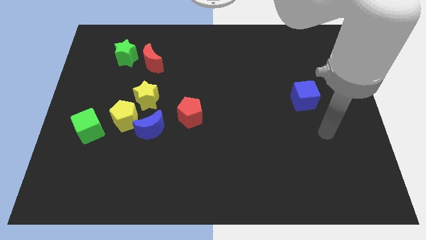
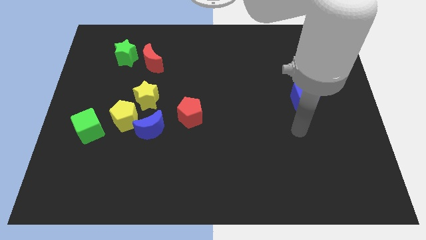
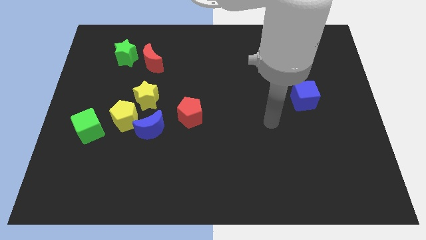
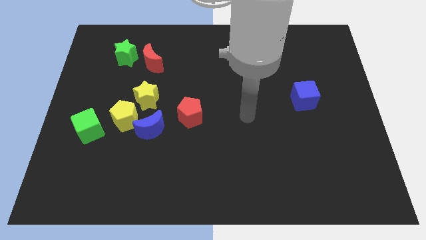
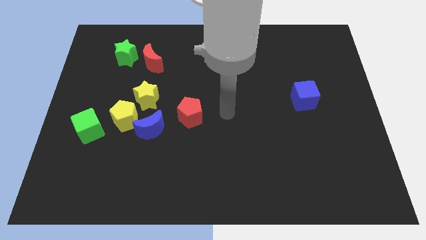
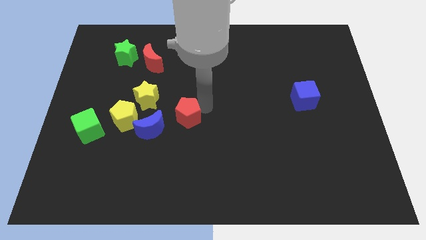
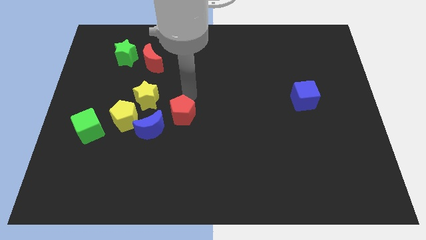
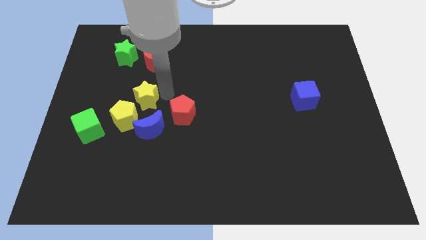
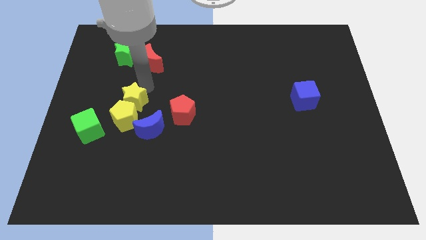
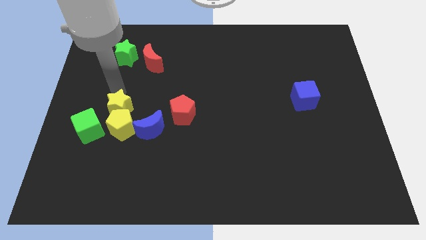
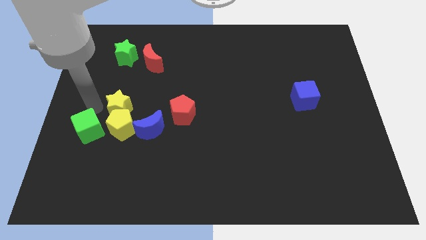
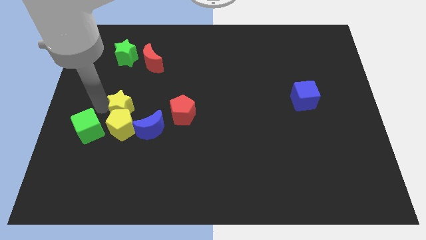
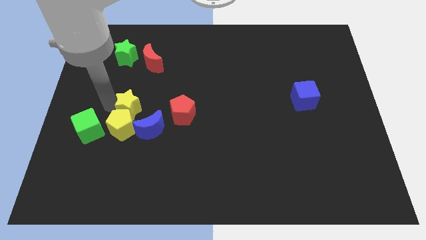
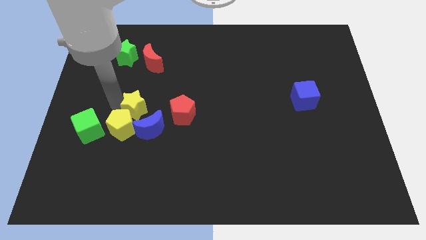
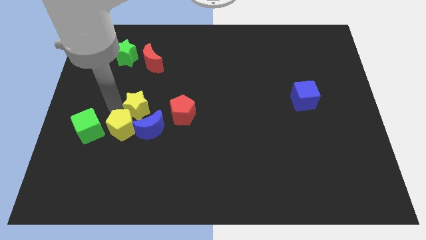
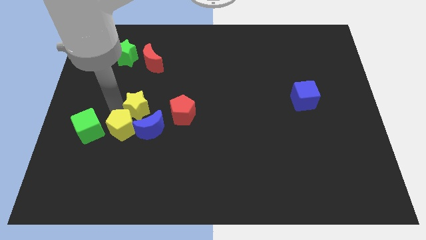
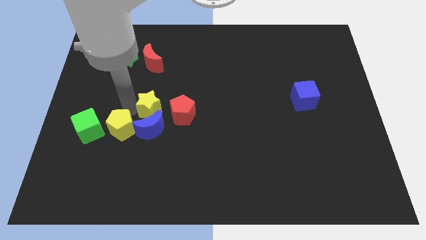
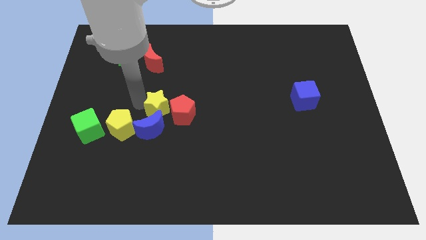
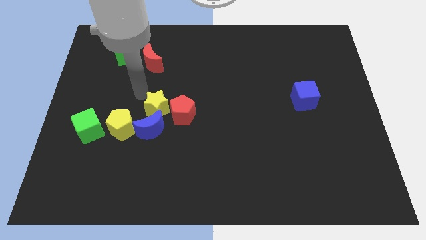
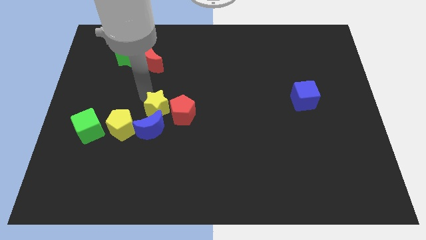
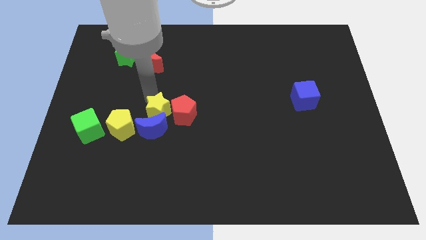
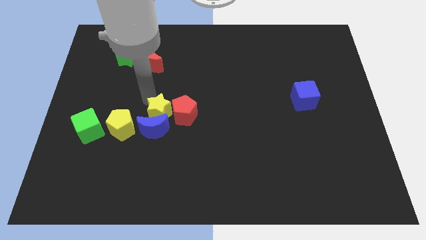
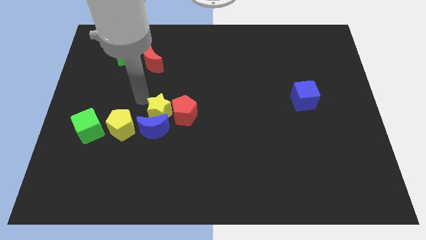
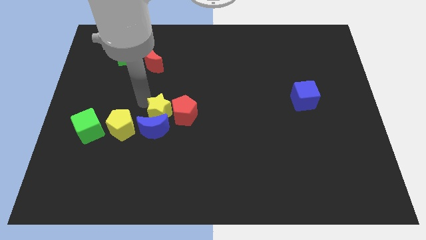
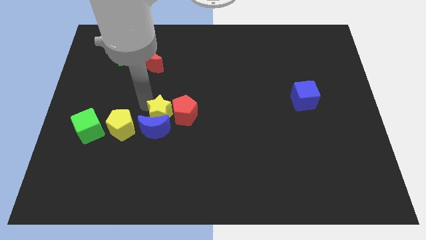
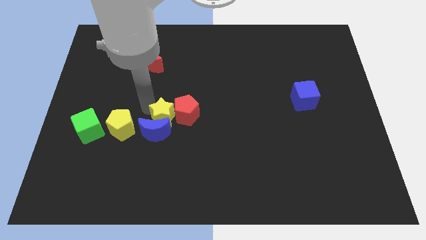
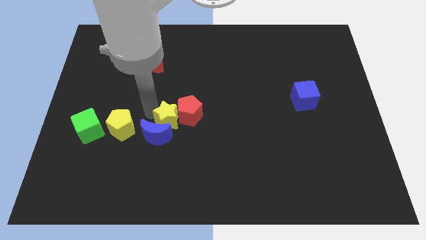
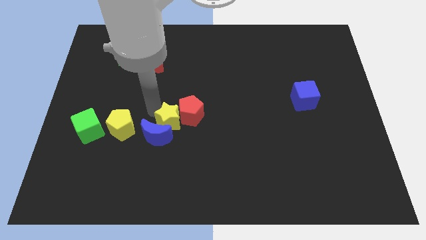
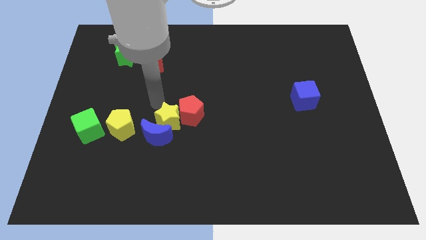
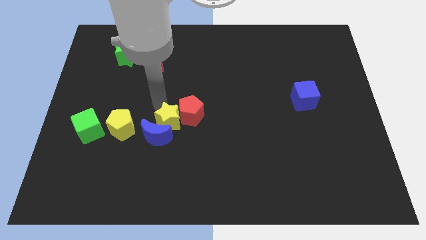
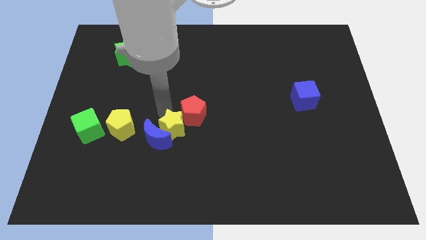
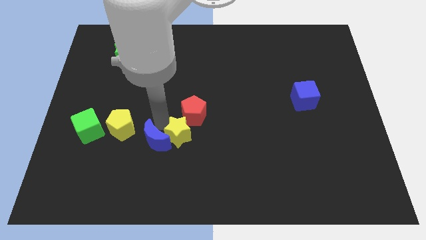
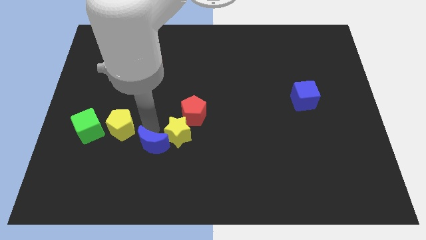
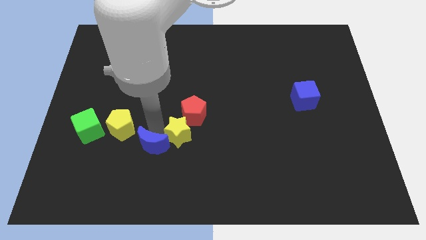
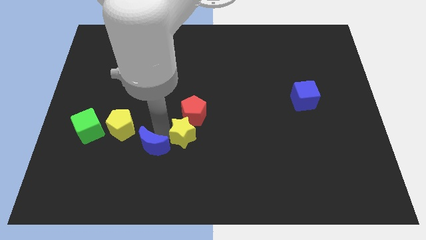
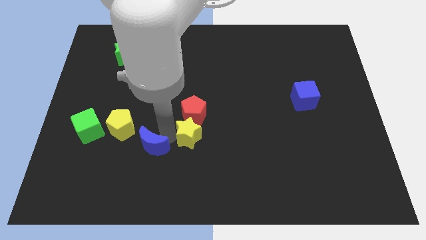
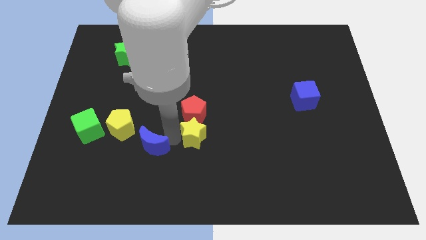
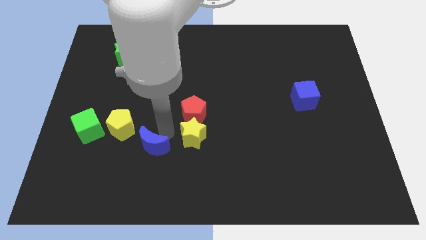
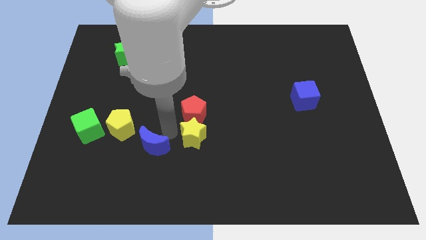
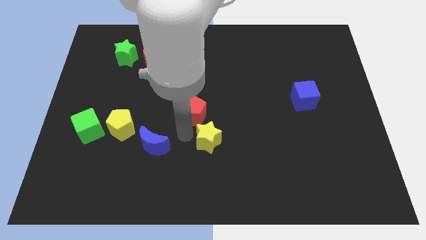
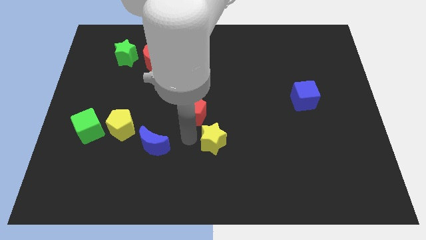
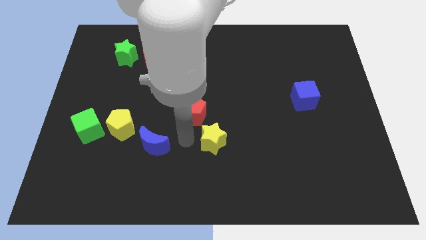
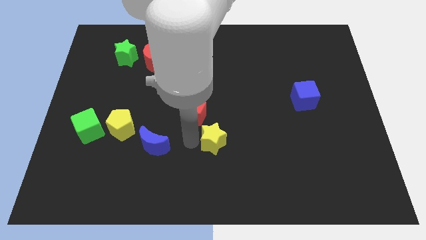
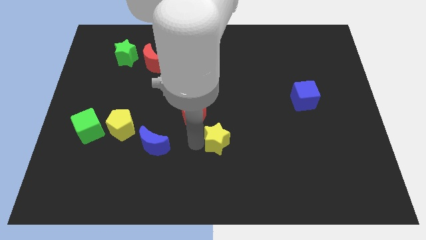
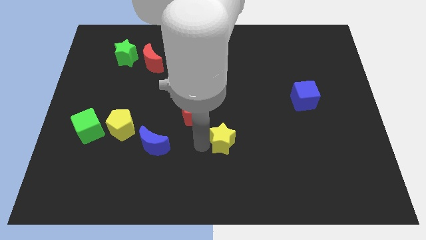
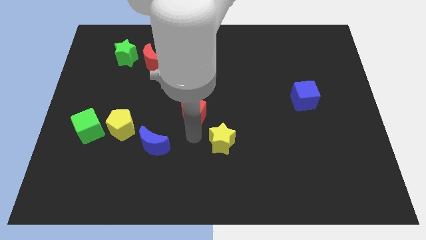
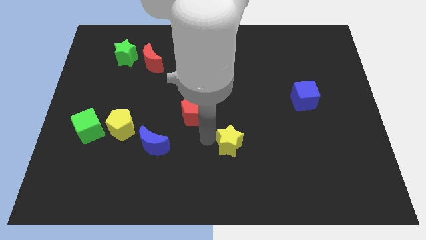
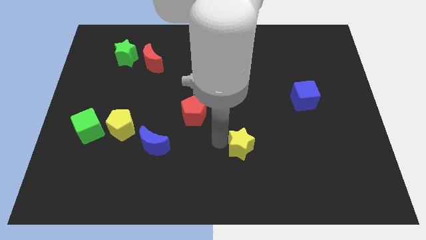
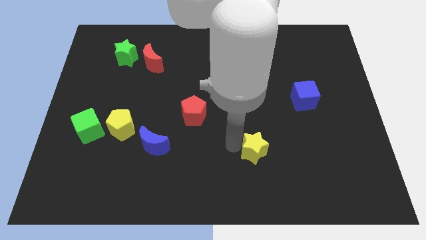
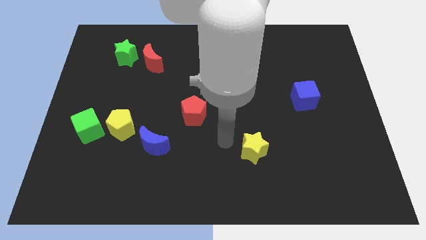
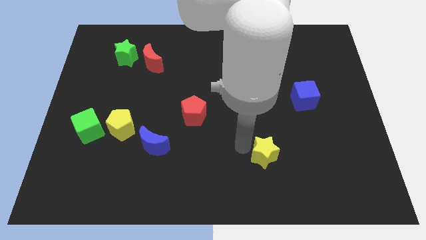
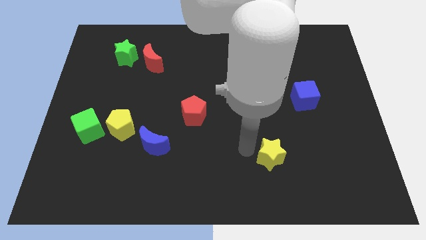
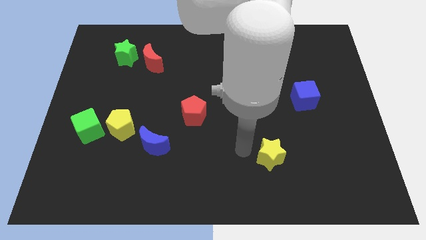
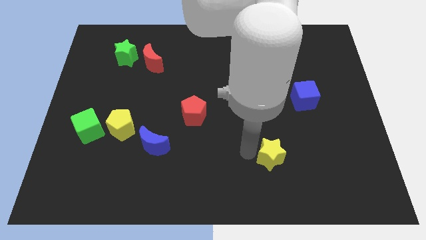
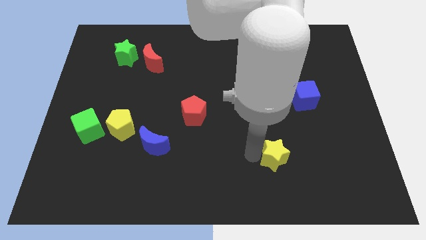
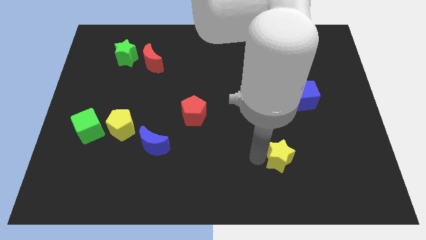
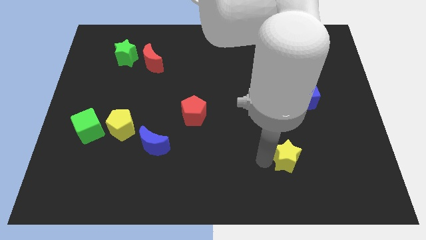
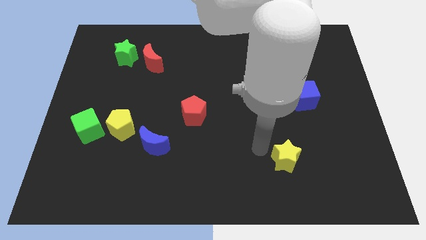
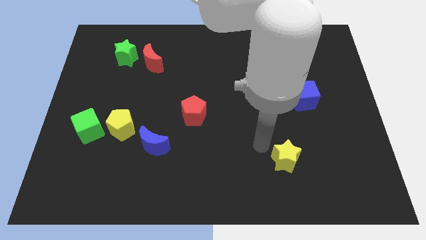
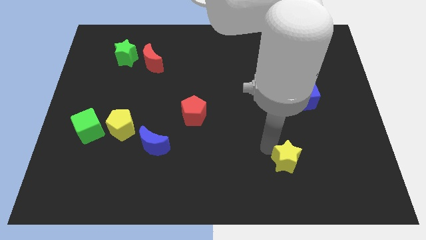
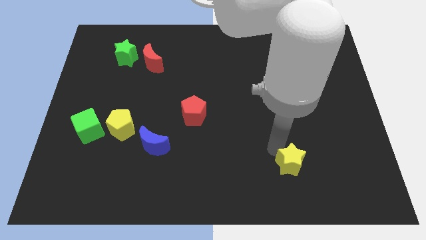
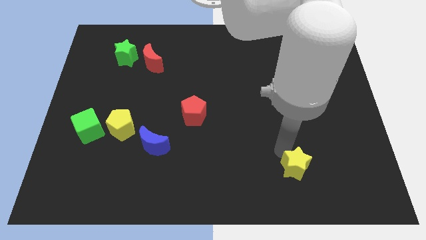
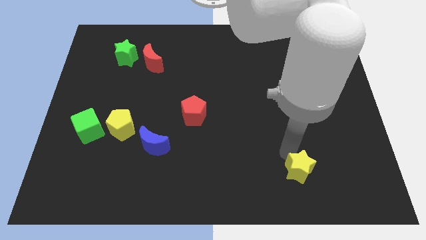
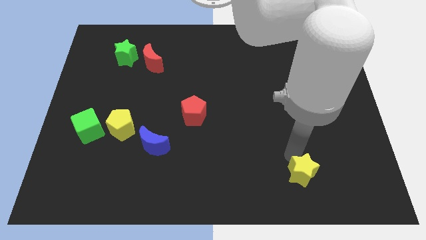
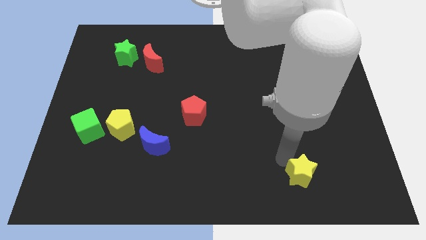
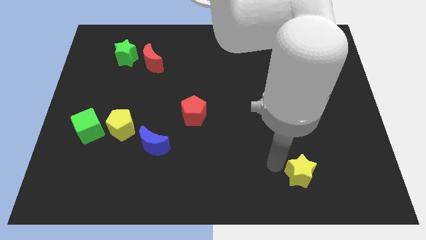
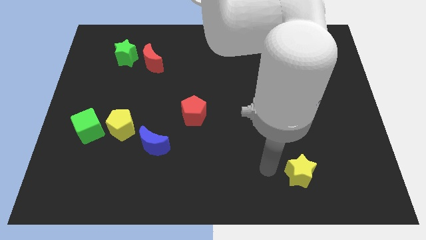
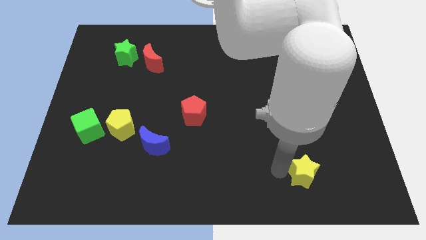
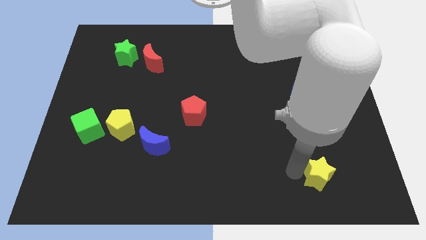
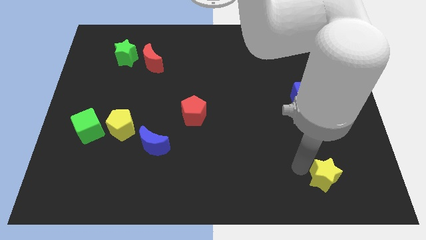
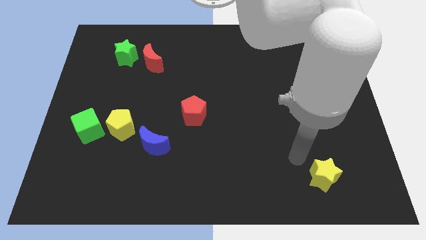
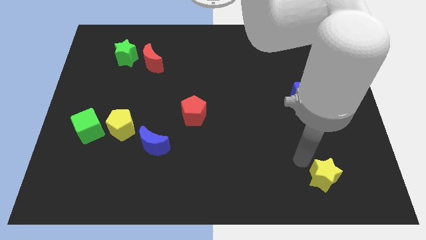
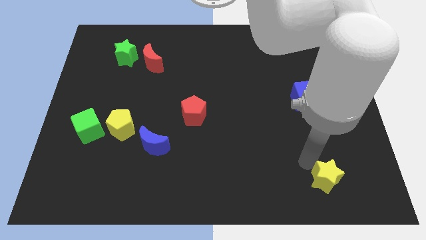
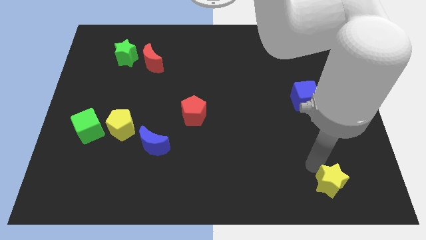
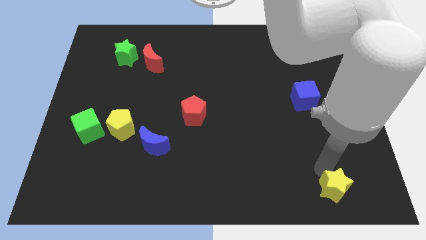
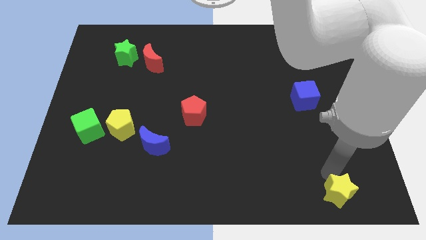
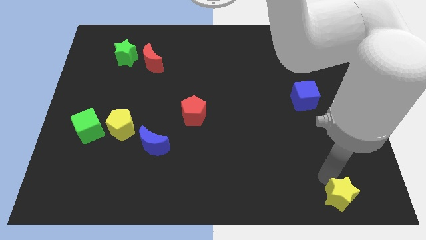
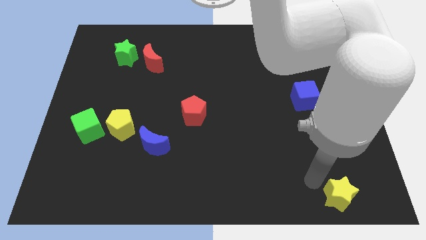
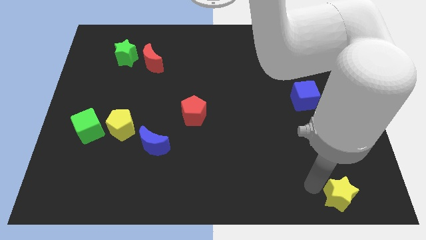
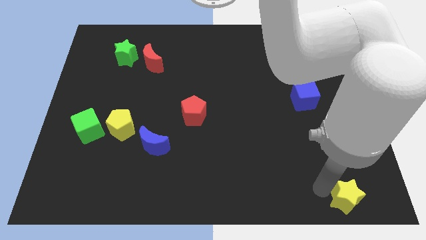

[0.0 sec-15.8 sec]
move the yellow star to the bottom right corner
